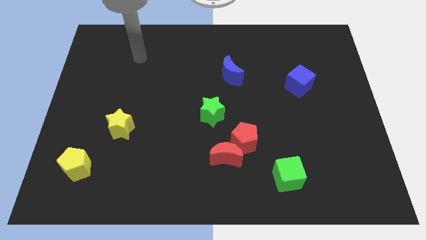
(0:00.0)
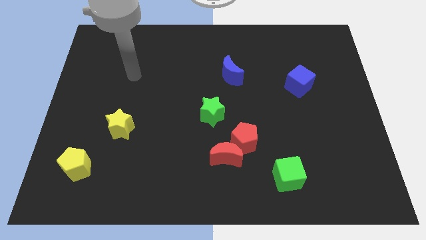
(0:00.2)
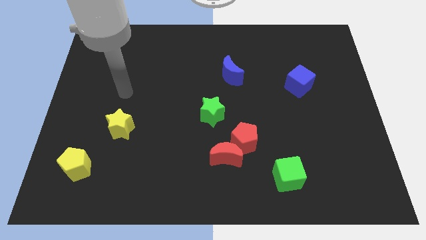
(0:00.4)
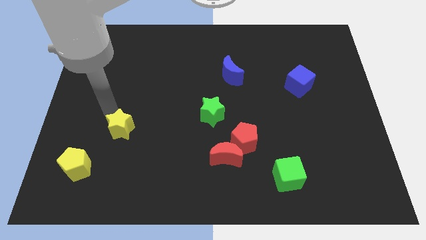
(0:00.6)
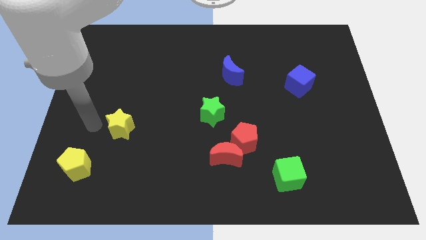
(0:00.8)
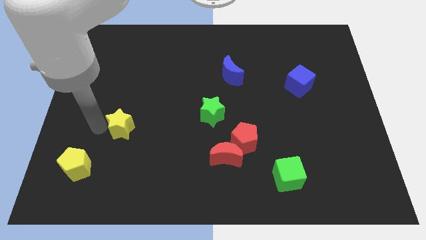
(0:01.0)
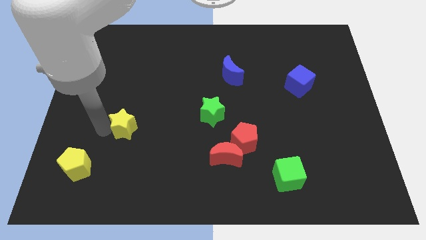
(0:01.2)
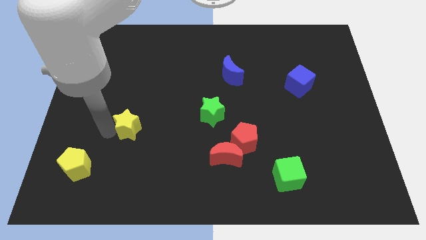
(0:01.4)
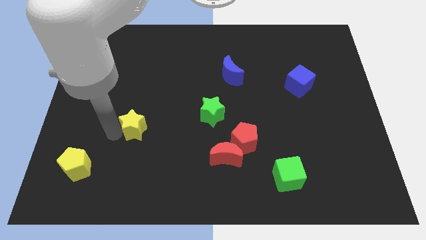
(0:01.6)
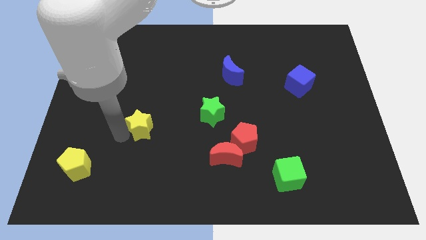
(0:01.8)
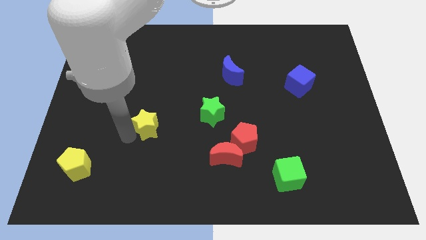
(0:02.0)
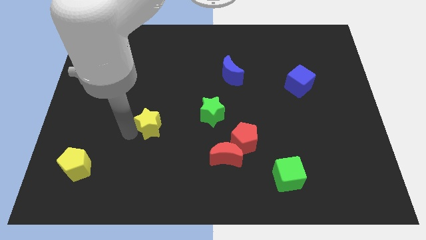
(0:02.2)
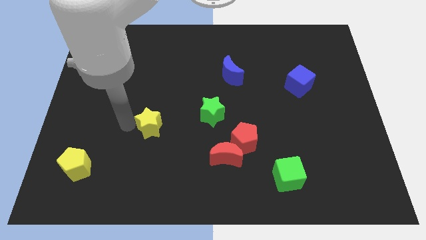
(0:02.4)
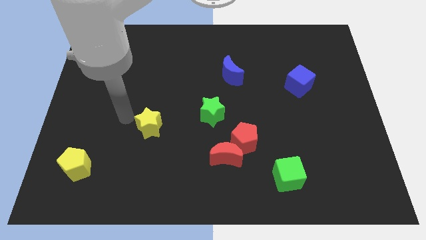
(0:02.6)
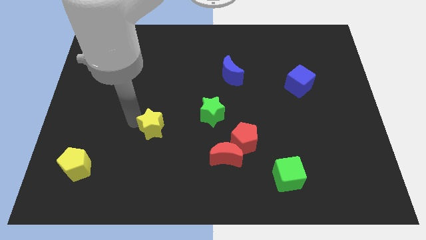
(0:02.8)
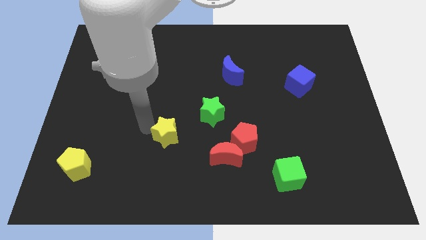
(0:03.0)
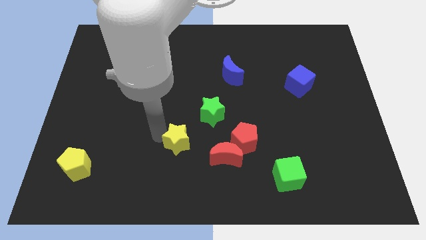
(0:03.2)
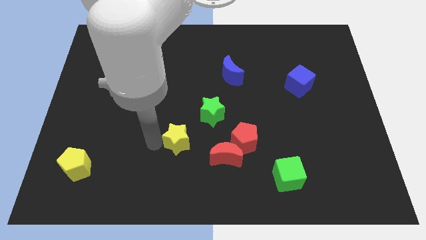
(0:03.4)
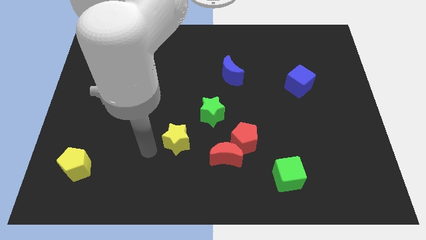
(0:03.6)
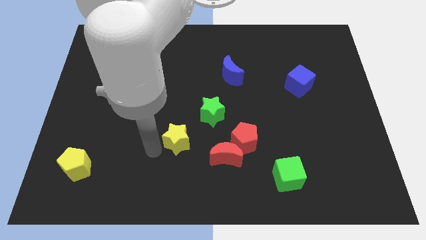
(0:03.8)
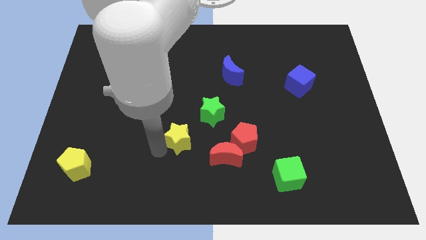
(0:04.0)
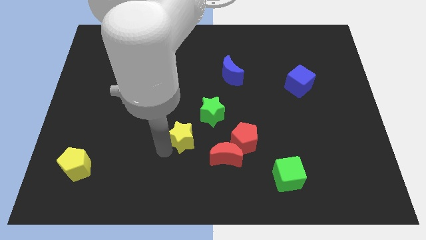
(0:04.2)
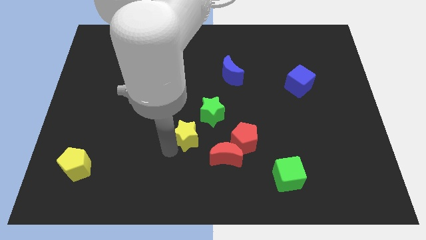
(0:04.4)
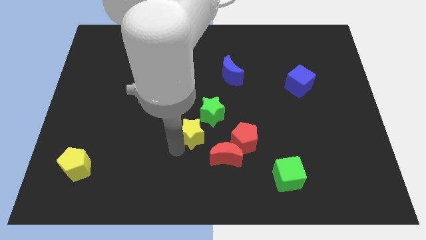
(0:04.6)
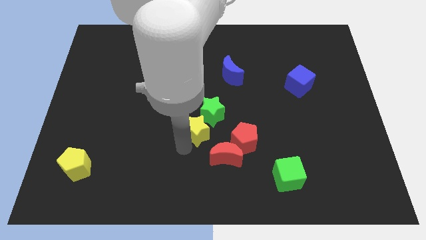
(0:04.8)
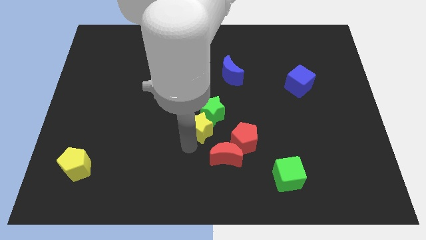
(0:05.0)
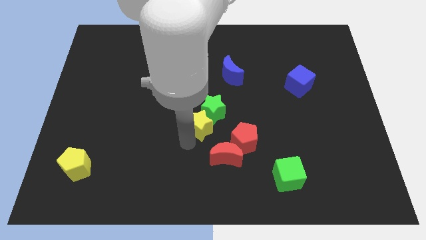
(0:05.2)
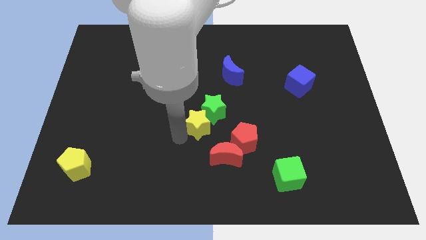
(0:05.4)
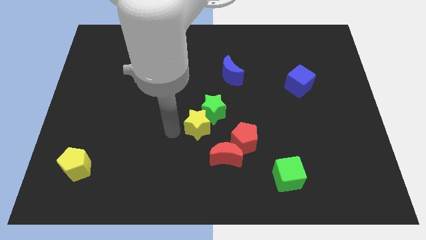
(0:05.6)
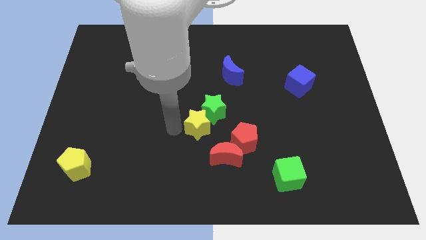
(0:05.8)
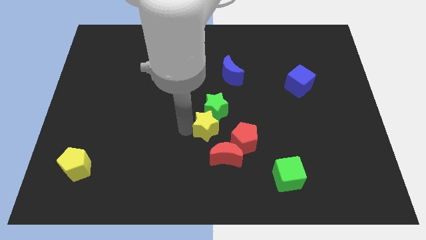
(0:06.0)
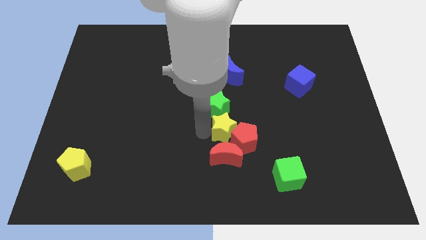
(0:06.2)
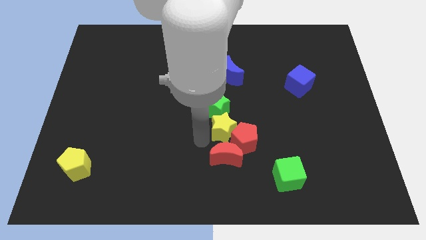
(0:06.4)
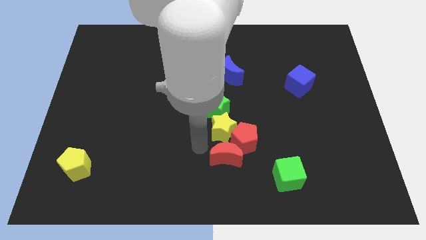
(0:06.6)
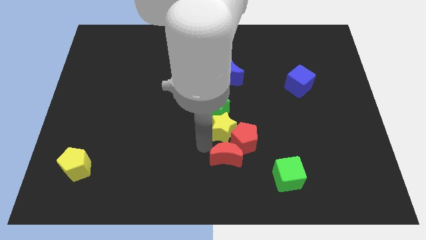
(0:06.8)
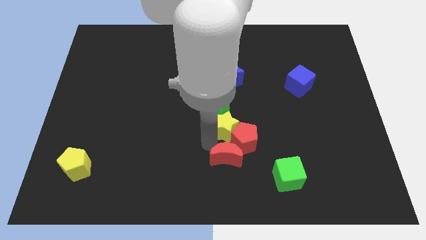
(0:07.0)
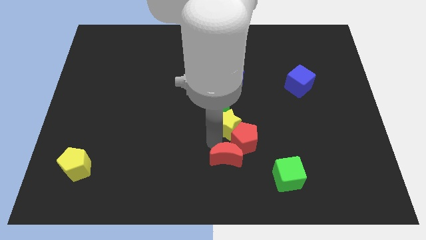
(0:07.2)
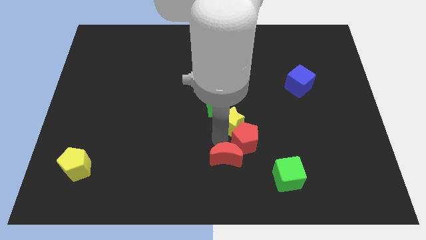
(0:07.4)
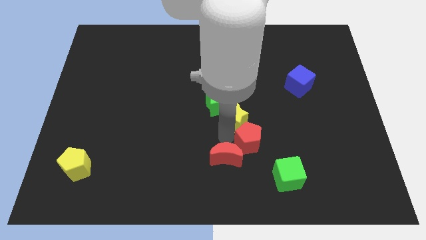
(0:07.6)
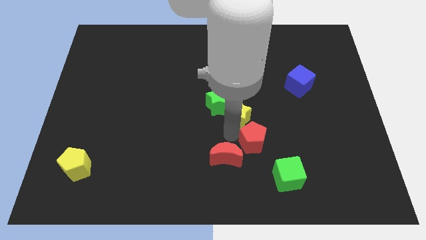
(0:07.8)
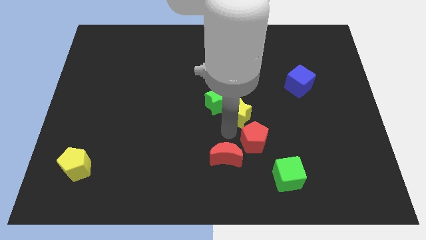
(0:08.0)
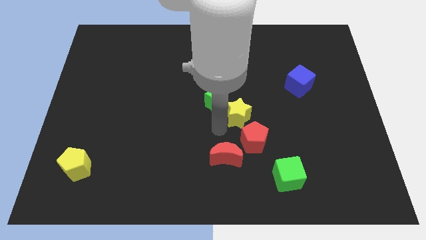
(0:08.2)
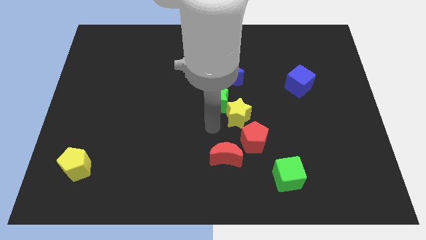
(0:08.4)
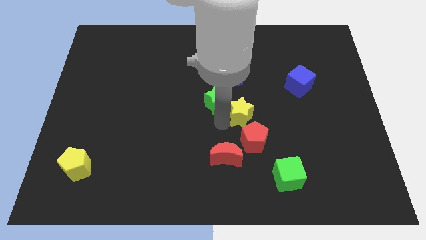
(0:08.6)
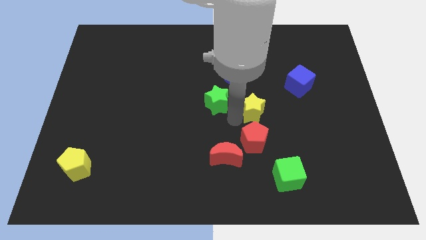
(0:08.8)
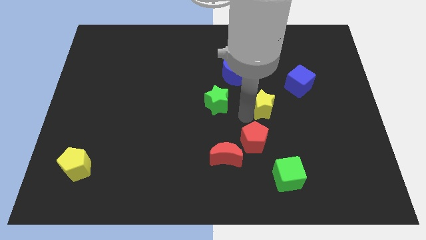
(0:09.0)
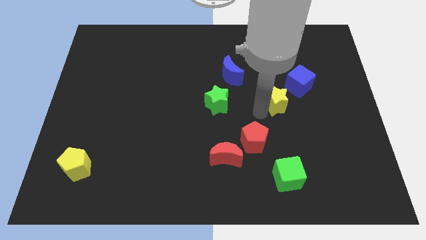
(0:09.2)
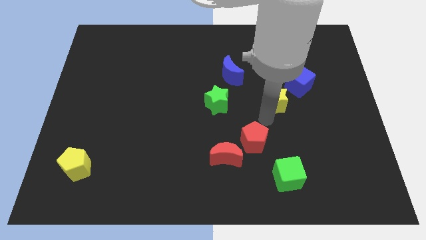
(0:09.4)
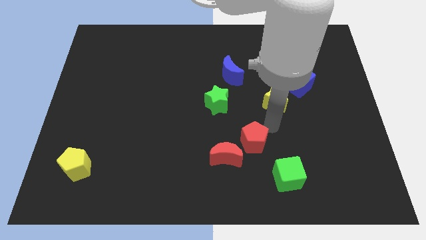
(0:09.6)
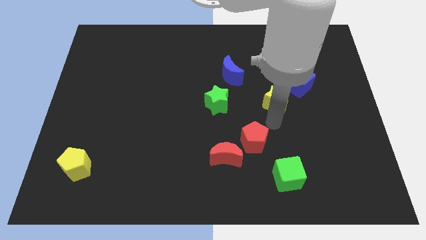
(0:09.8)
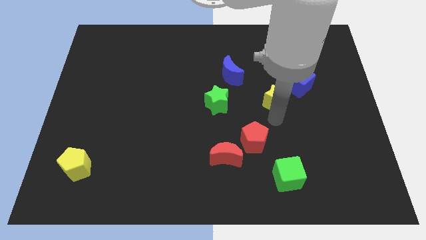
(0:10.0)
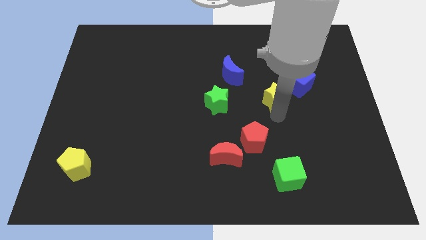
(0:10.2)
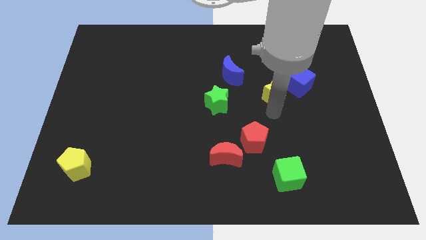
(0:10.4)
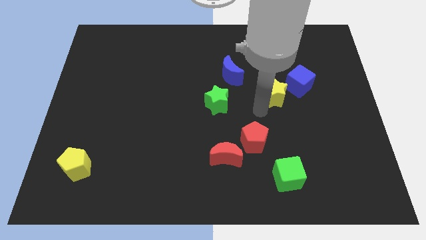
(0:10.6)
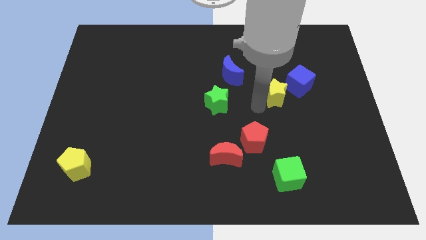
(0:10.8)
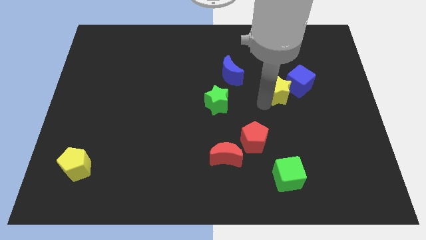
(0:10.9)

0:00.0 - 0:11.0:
slide the yellow star to the blue cube

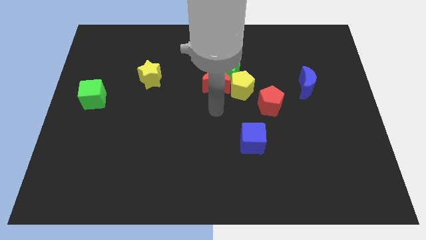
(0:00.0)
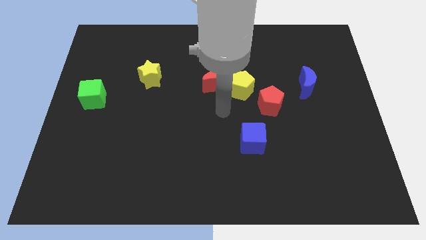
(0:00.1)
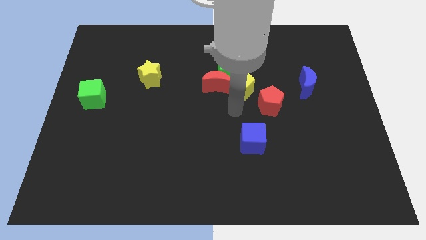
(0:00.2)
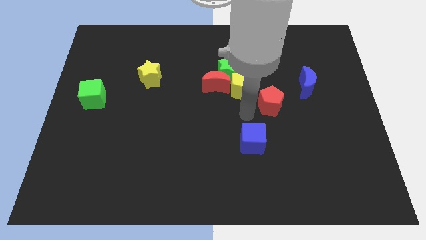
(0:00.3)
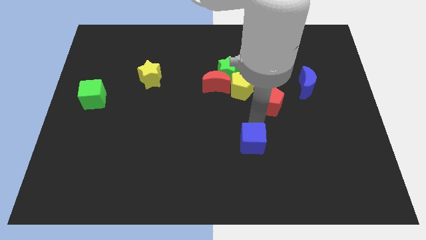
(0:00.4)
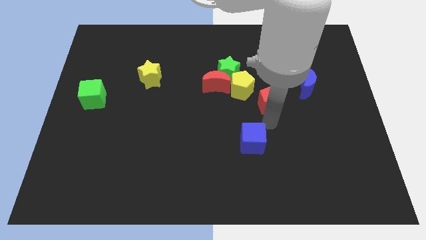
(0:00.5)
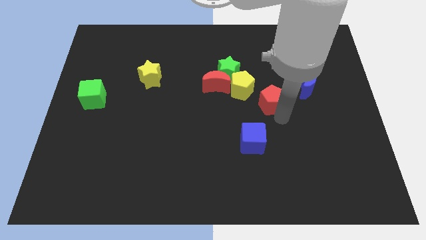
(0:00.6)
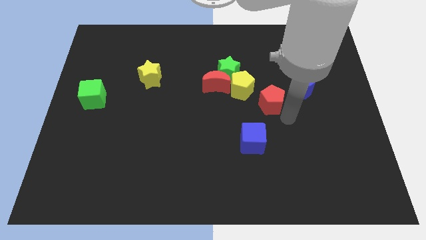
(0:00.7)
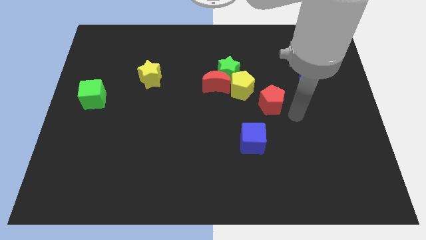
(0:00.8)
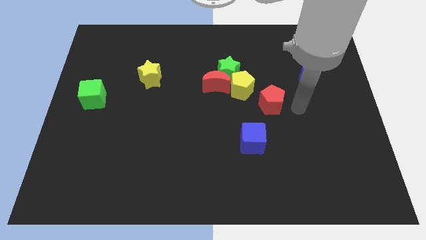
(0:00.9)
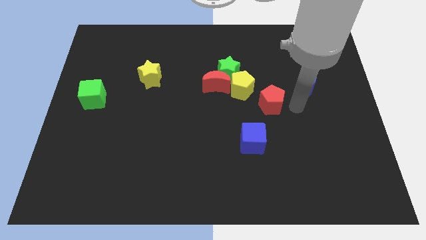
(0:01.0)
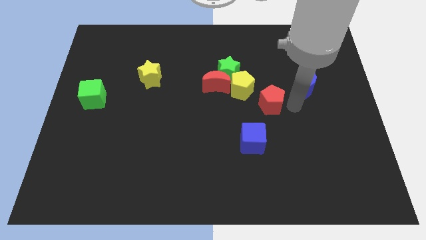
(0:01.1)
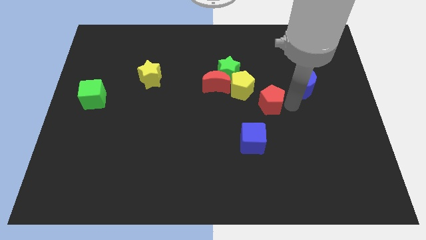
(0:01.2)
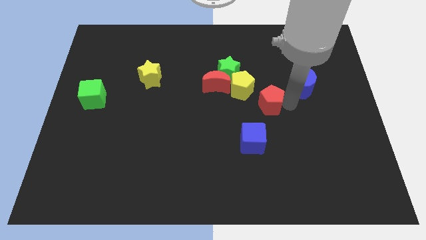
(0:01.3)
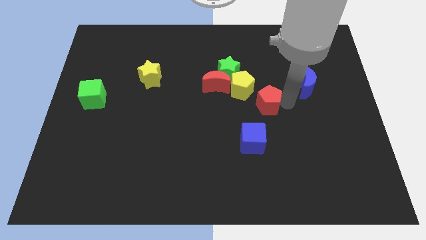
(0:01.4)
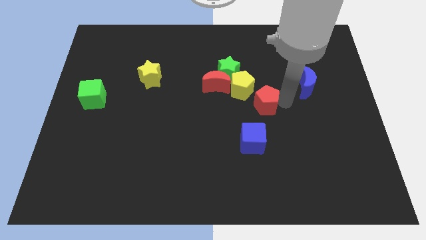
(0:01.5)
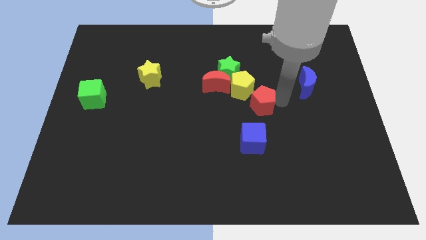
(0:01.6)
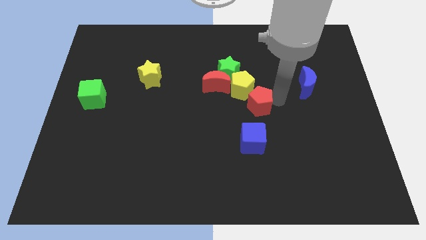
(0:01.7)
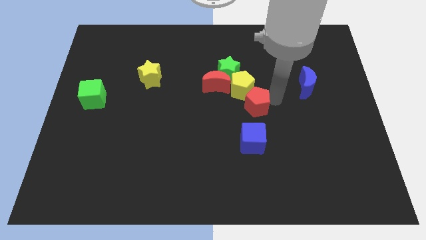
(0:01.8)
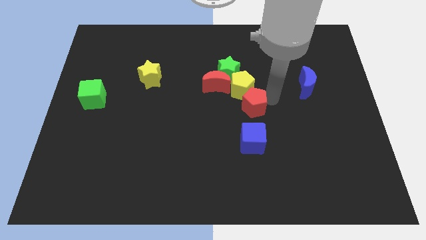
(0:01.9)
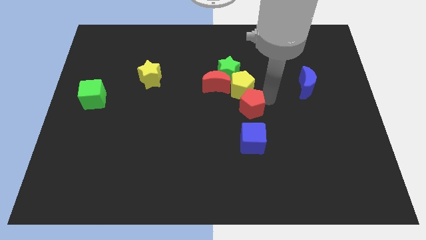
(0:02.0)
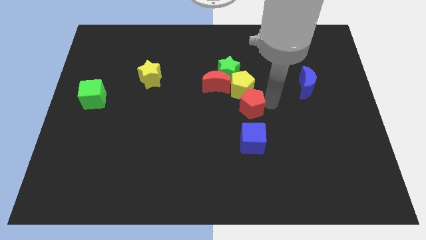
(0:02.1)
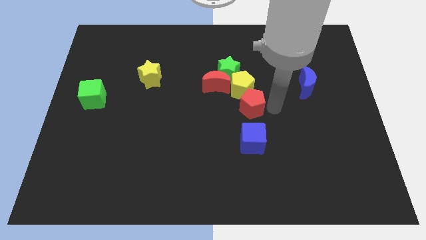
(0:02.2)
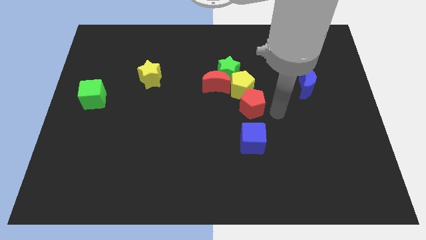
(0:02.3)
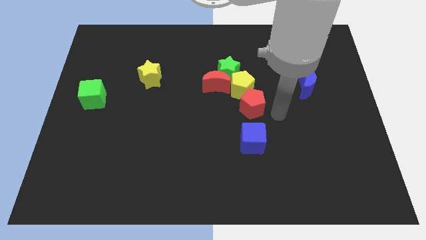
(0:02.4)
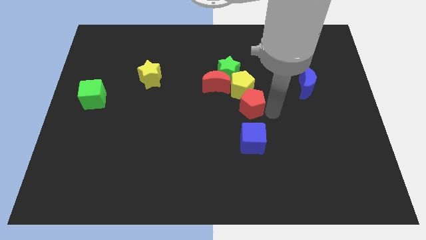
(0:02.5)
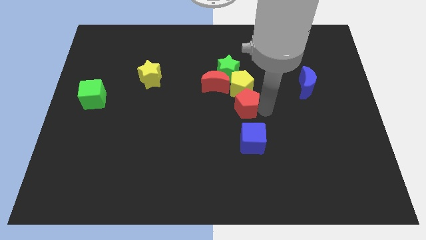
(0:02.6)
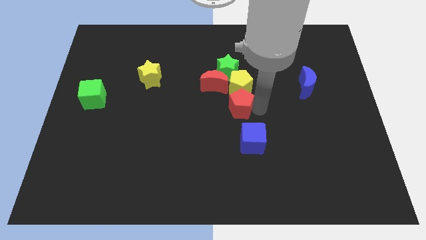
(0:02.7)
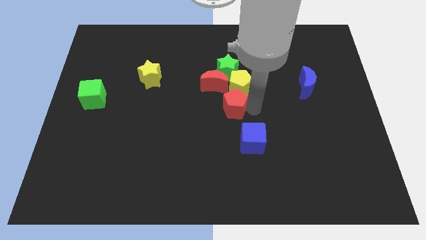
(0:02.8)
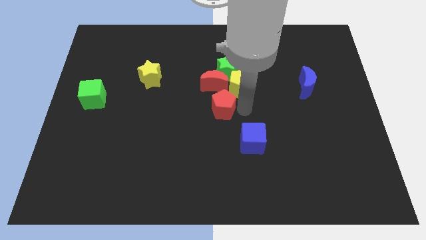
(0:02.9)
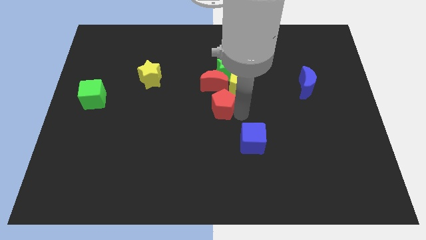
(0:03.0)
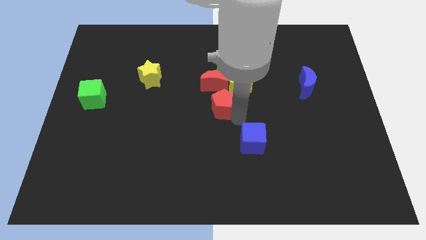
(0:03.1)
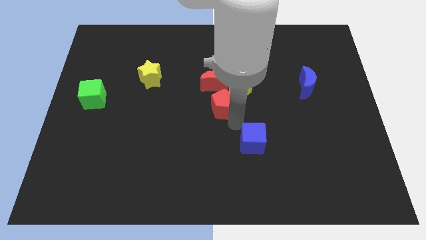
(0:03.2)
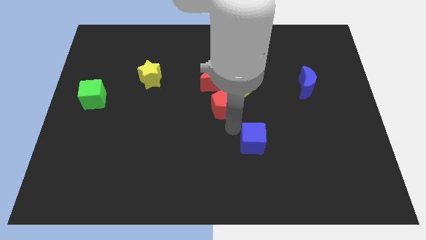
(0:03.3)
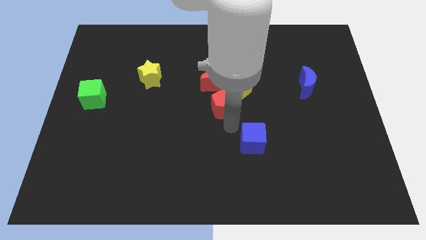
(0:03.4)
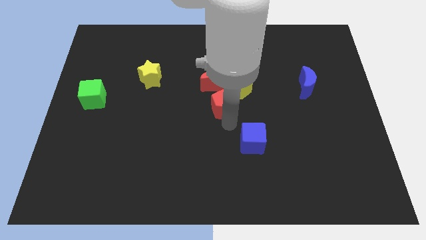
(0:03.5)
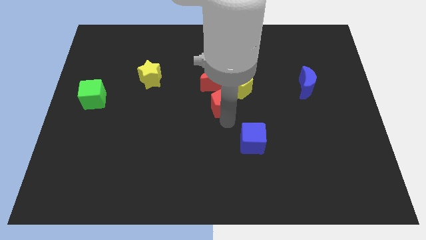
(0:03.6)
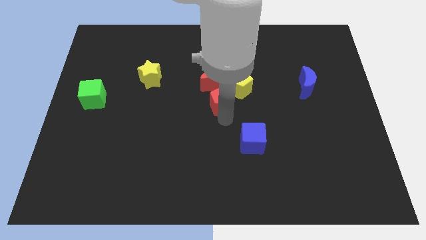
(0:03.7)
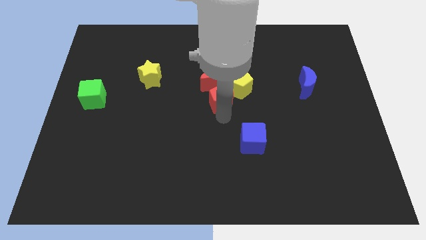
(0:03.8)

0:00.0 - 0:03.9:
put the red pentagon towards the red moon
